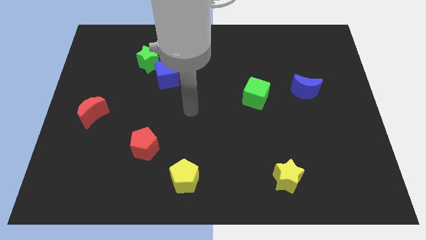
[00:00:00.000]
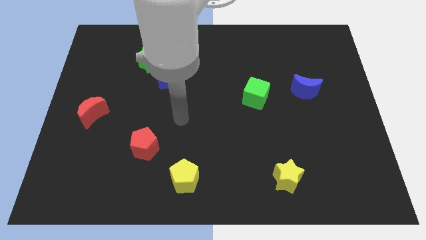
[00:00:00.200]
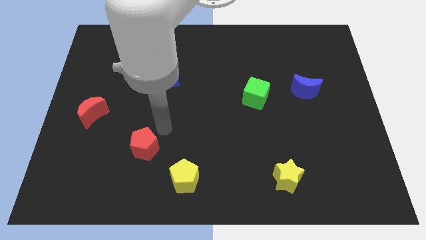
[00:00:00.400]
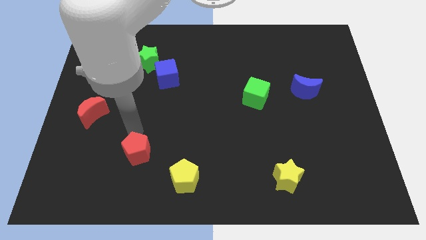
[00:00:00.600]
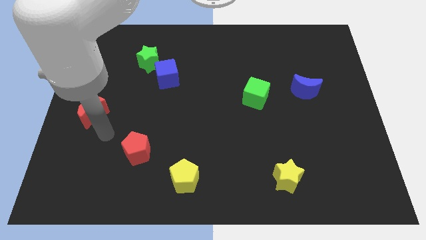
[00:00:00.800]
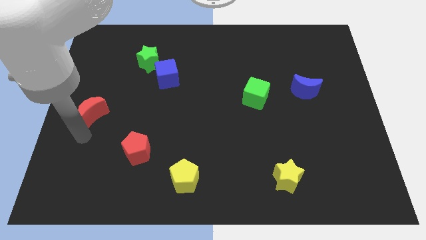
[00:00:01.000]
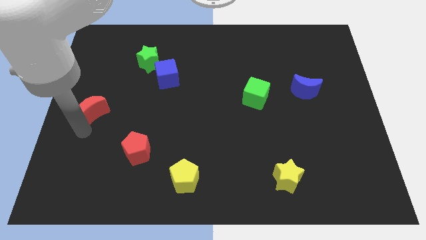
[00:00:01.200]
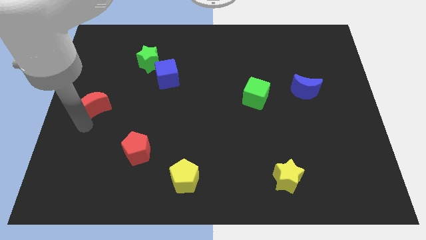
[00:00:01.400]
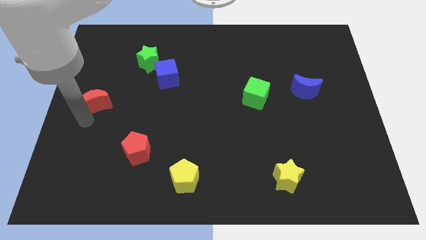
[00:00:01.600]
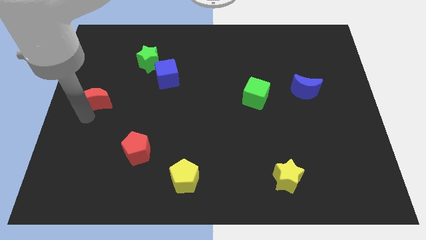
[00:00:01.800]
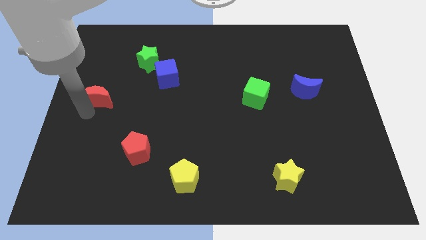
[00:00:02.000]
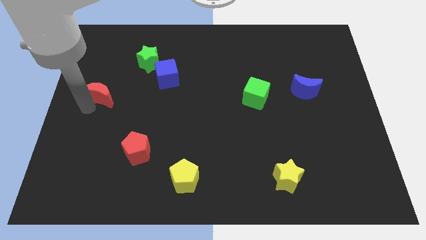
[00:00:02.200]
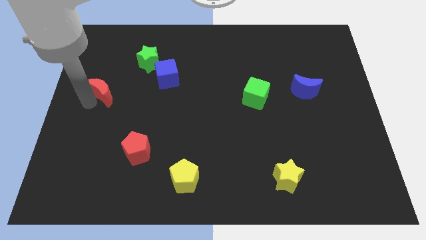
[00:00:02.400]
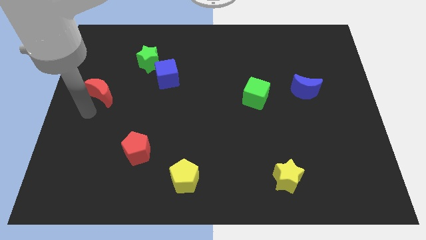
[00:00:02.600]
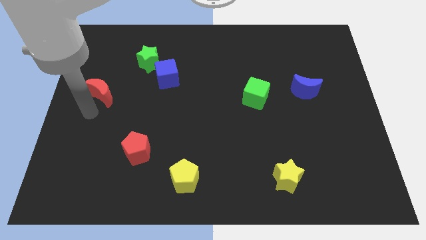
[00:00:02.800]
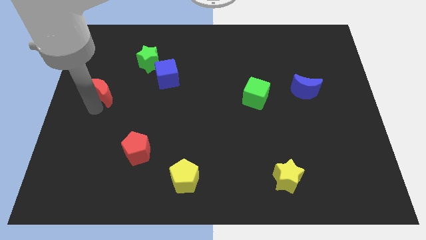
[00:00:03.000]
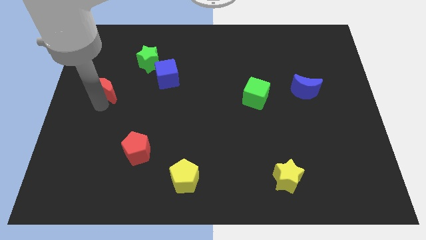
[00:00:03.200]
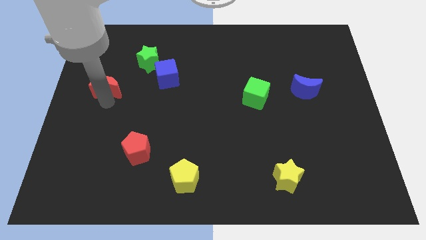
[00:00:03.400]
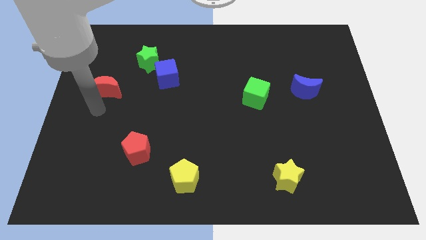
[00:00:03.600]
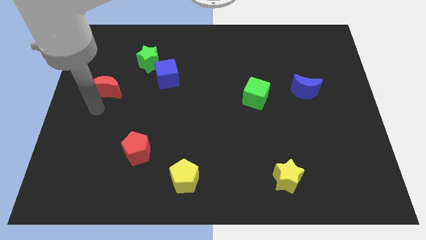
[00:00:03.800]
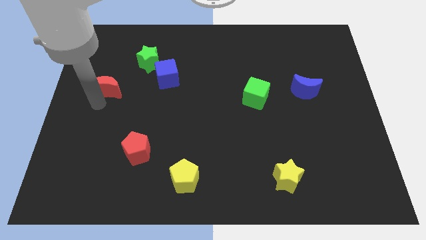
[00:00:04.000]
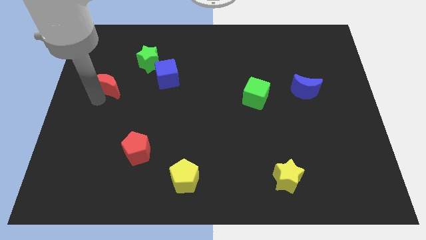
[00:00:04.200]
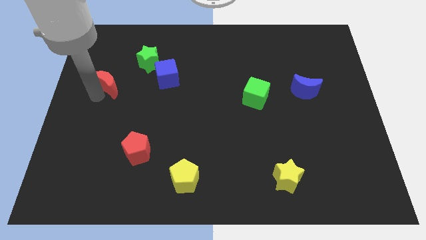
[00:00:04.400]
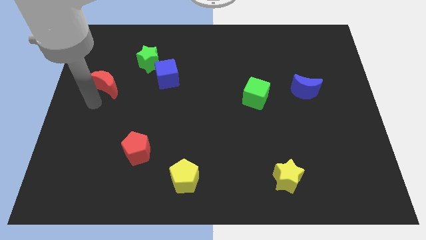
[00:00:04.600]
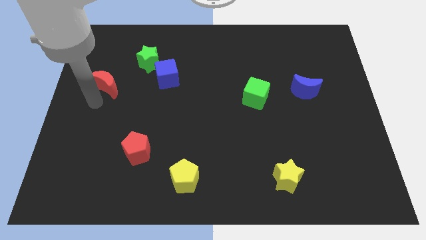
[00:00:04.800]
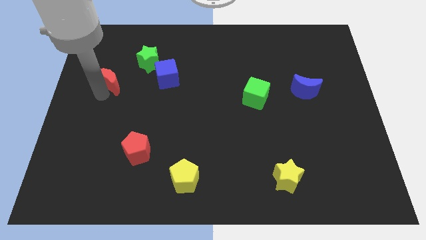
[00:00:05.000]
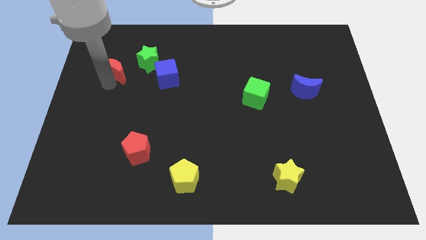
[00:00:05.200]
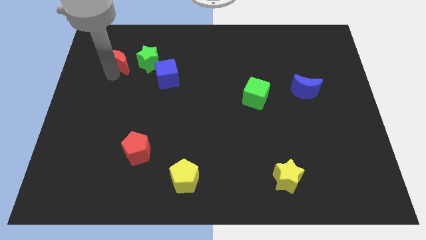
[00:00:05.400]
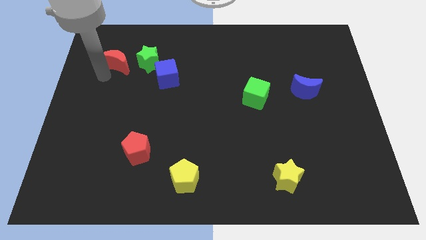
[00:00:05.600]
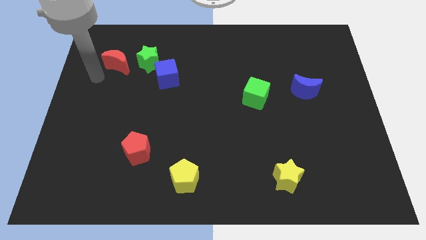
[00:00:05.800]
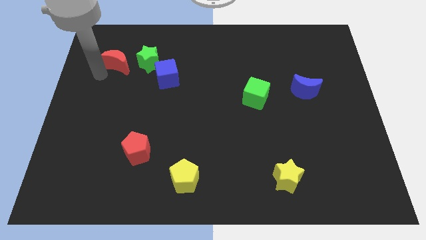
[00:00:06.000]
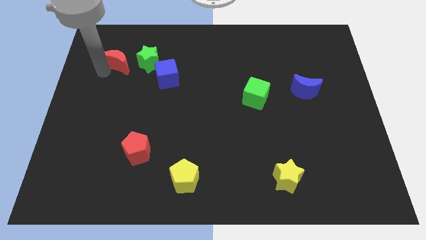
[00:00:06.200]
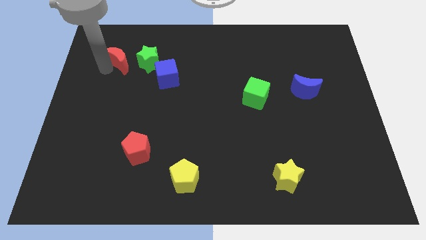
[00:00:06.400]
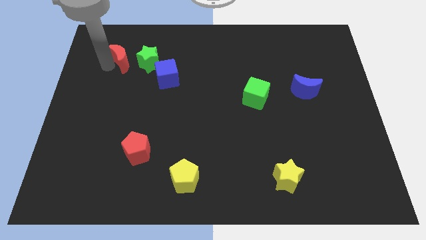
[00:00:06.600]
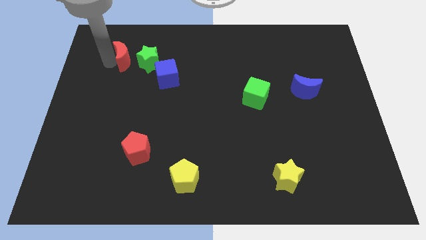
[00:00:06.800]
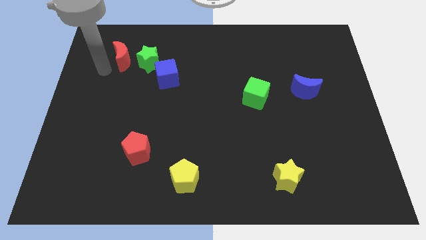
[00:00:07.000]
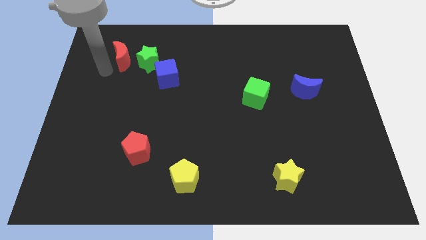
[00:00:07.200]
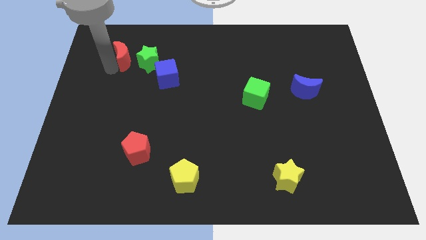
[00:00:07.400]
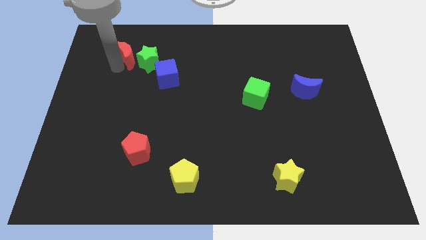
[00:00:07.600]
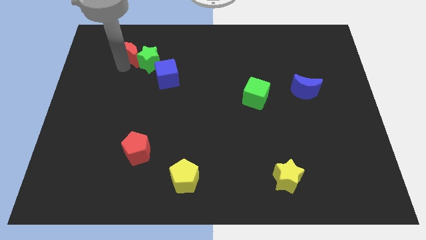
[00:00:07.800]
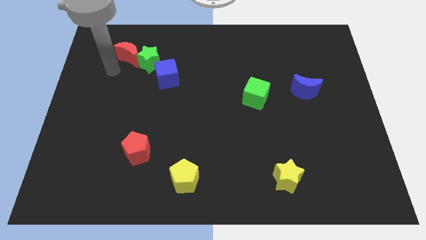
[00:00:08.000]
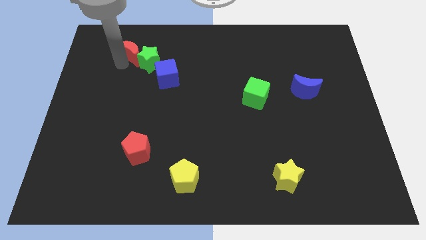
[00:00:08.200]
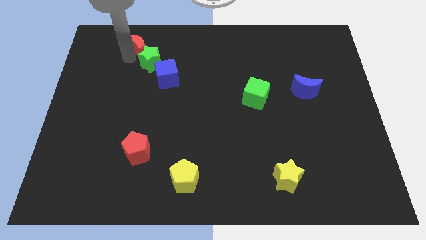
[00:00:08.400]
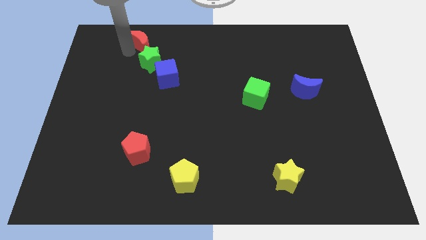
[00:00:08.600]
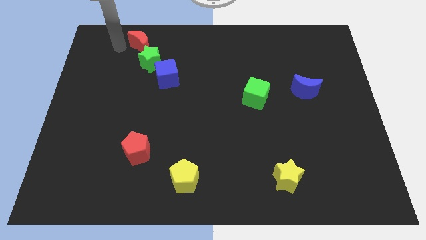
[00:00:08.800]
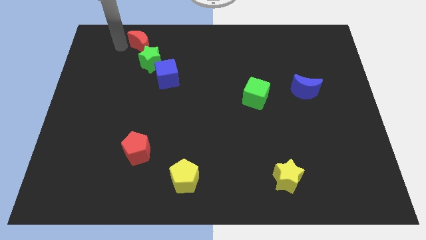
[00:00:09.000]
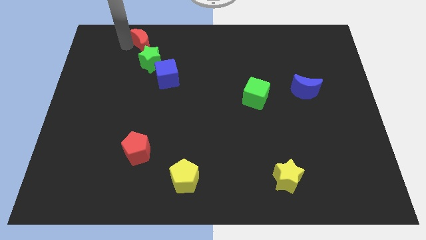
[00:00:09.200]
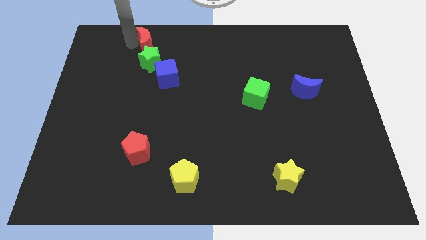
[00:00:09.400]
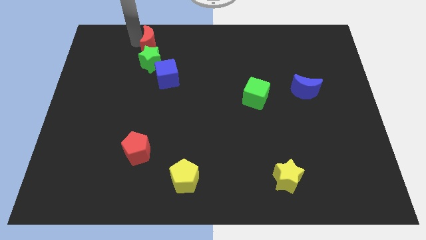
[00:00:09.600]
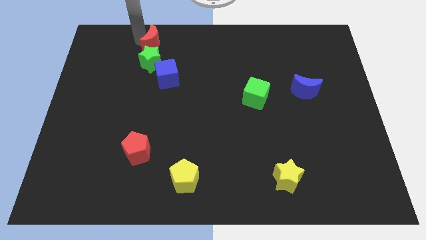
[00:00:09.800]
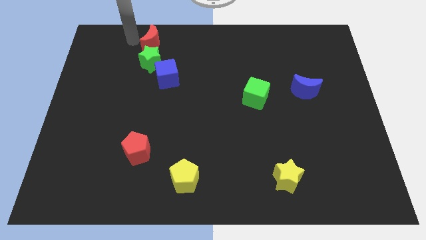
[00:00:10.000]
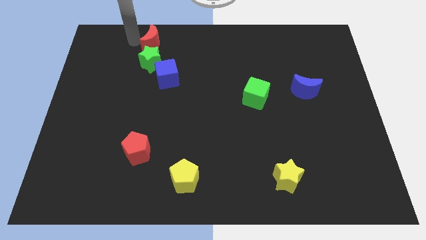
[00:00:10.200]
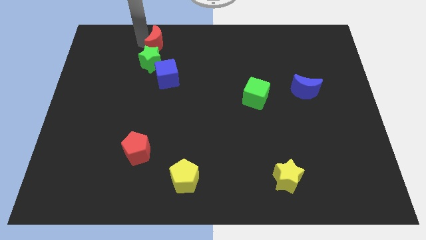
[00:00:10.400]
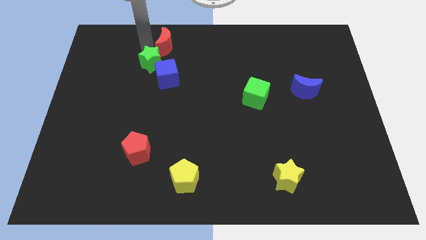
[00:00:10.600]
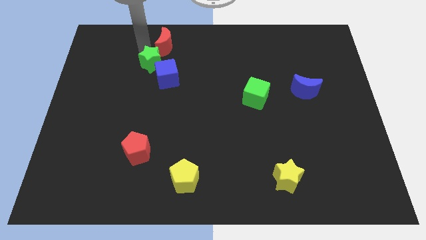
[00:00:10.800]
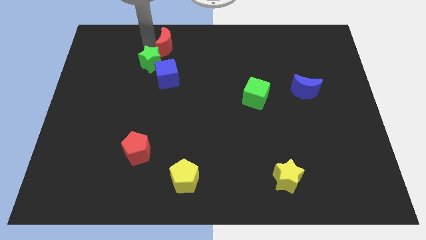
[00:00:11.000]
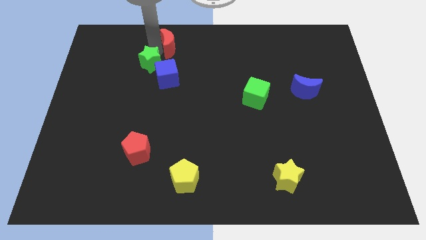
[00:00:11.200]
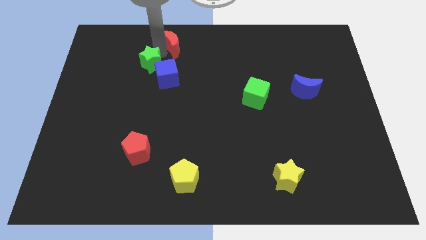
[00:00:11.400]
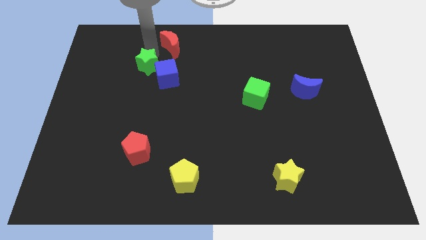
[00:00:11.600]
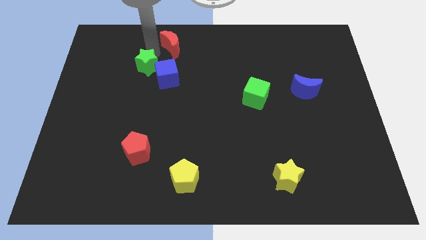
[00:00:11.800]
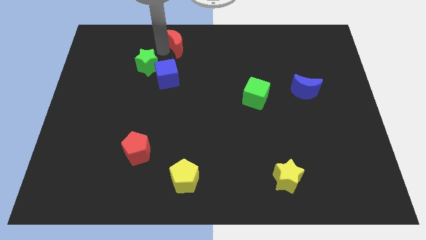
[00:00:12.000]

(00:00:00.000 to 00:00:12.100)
push the red moon to the top
